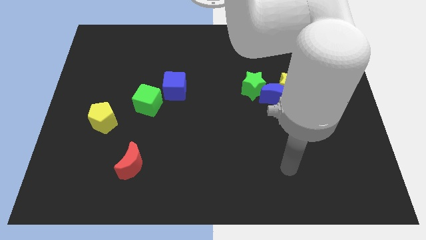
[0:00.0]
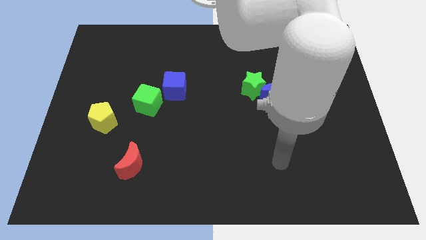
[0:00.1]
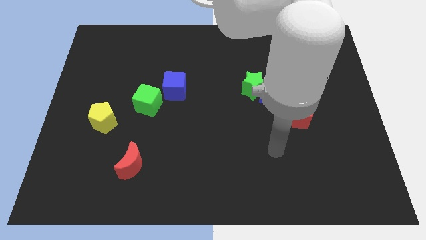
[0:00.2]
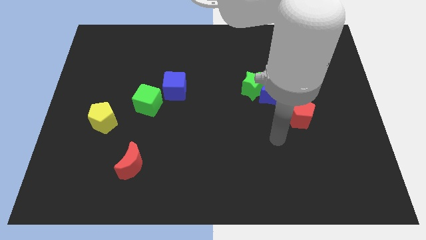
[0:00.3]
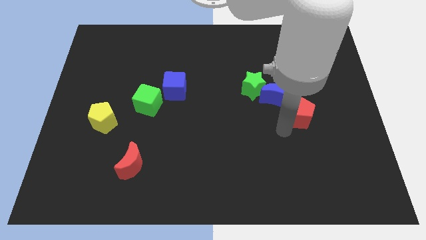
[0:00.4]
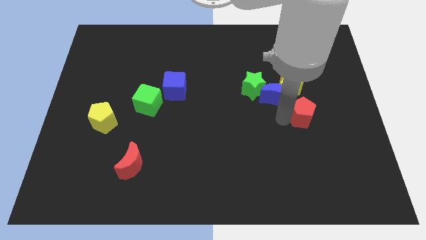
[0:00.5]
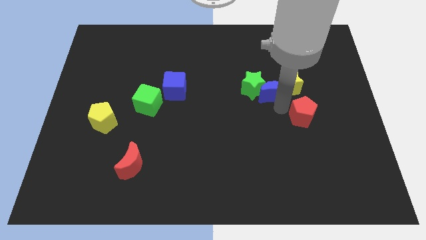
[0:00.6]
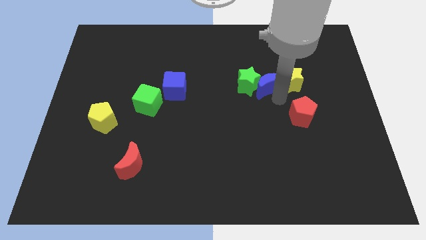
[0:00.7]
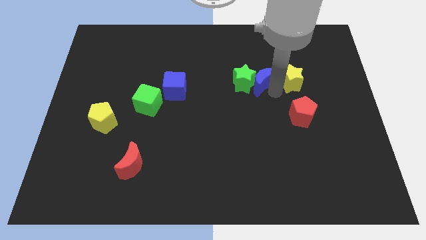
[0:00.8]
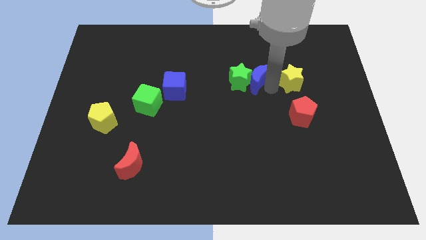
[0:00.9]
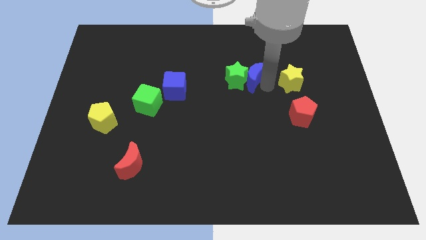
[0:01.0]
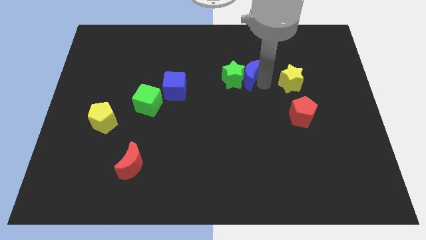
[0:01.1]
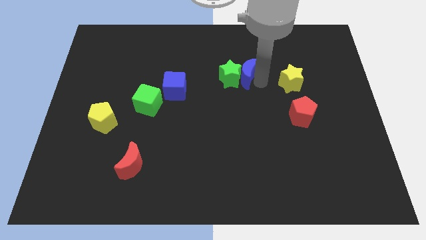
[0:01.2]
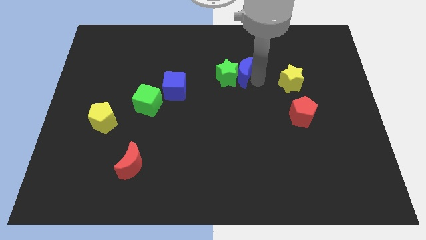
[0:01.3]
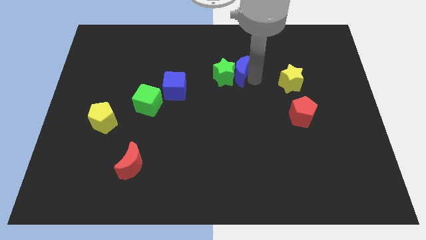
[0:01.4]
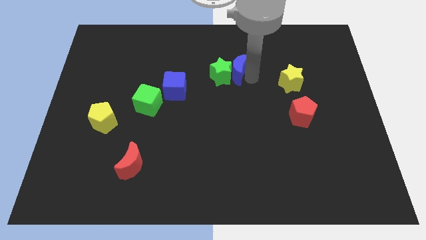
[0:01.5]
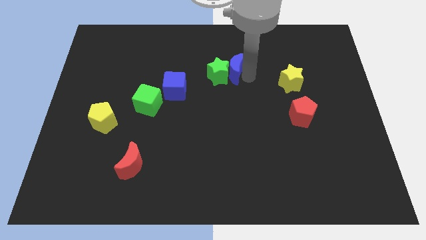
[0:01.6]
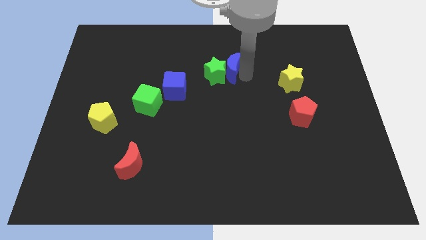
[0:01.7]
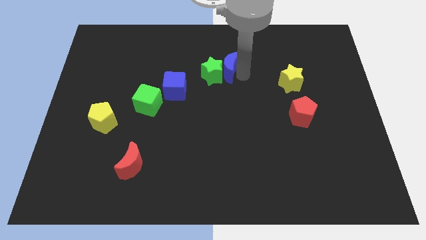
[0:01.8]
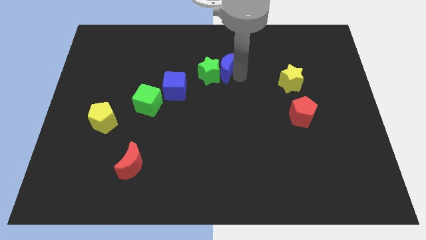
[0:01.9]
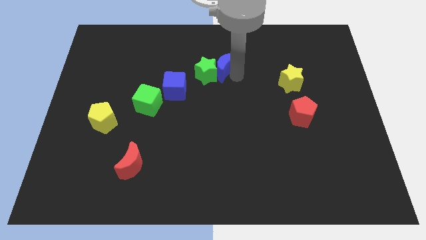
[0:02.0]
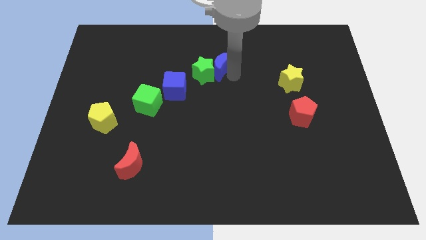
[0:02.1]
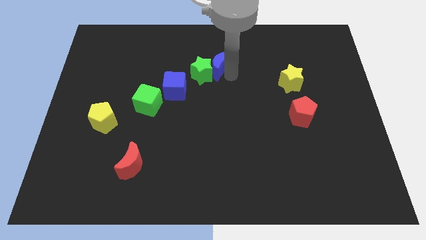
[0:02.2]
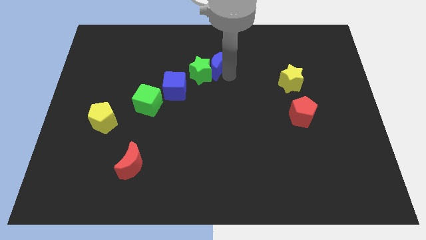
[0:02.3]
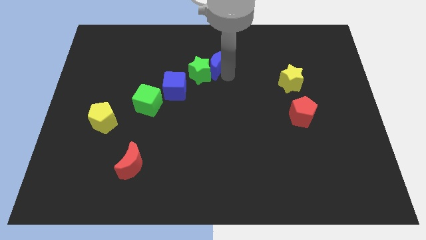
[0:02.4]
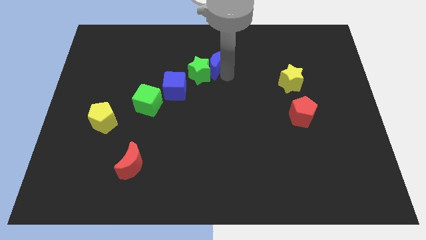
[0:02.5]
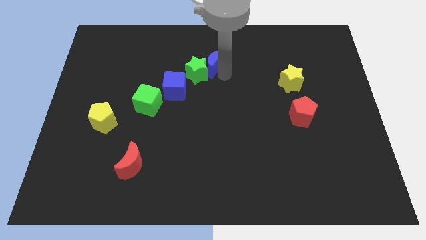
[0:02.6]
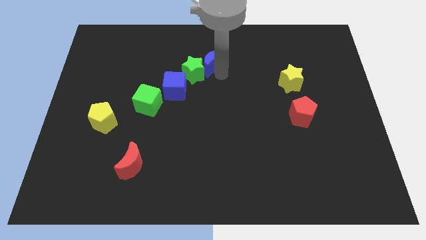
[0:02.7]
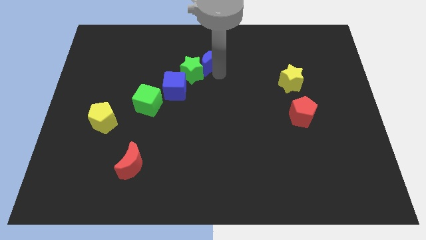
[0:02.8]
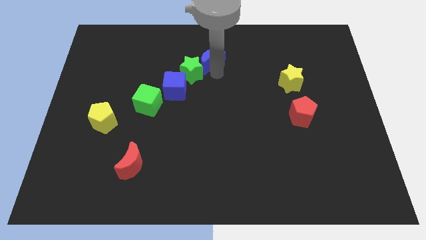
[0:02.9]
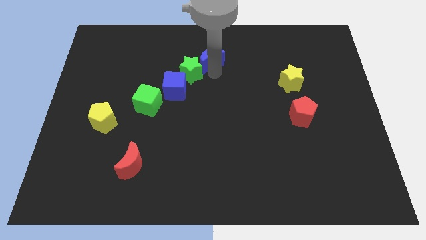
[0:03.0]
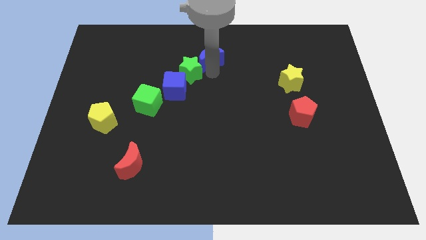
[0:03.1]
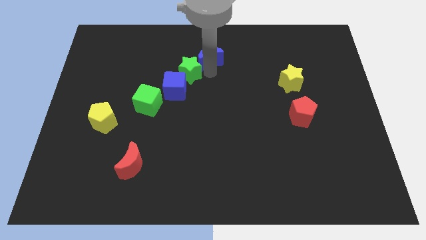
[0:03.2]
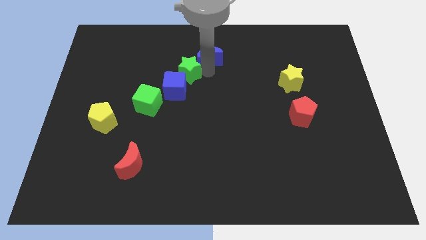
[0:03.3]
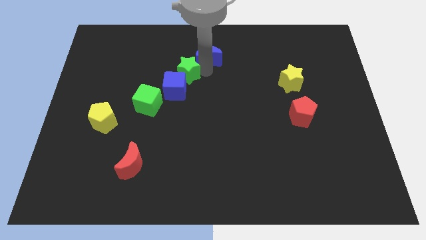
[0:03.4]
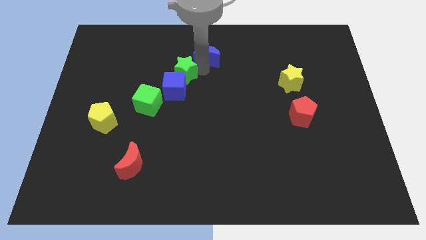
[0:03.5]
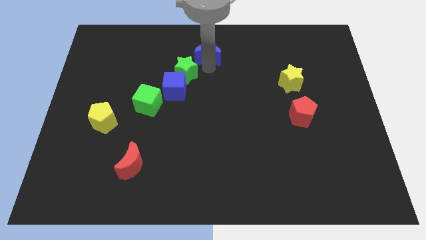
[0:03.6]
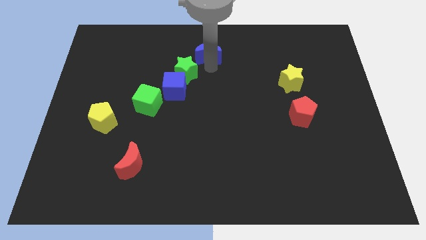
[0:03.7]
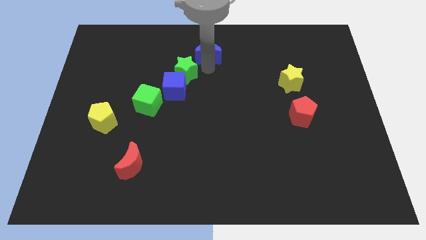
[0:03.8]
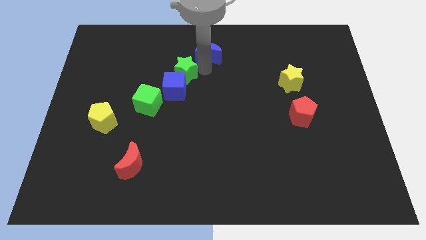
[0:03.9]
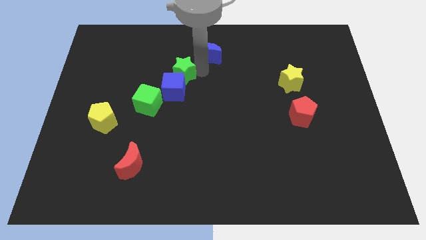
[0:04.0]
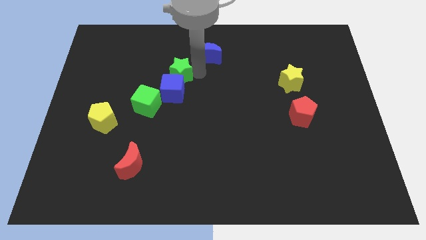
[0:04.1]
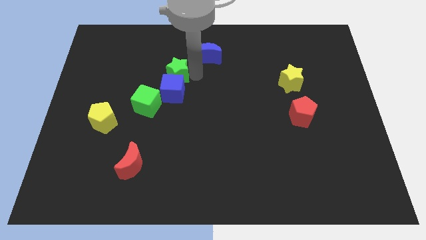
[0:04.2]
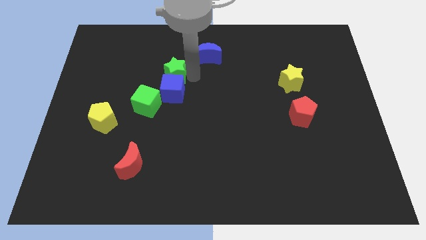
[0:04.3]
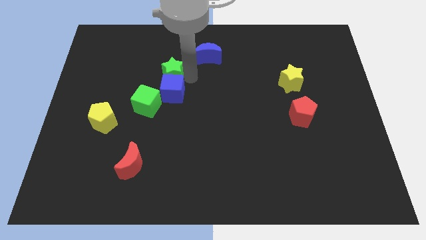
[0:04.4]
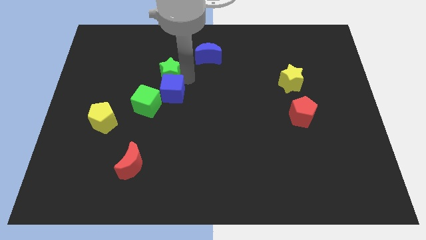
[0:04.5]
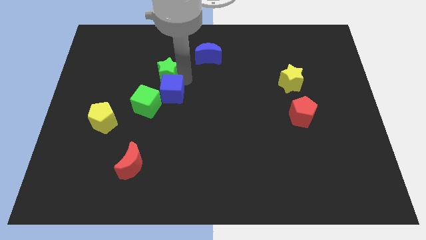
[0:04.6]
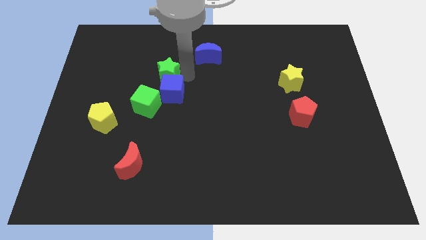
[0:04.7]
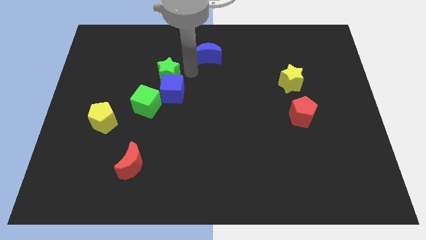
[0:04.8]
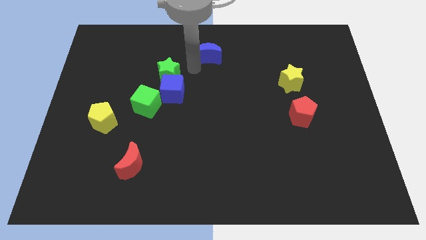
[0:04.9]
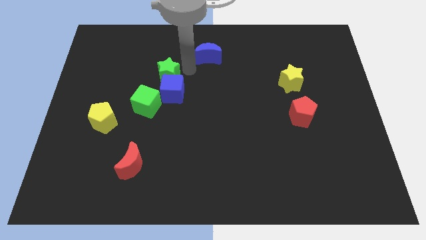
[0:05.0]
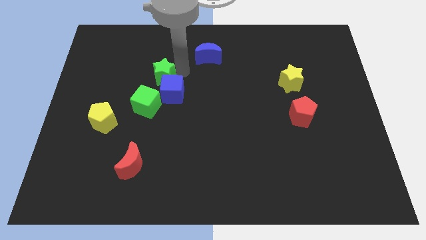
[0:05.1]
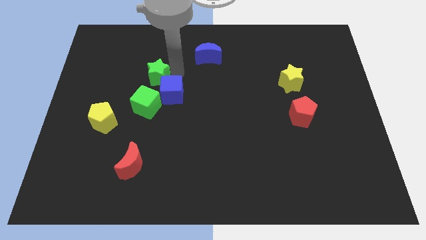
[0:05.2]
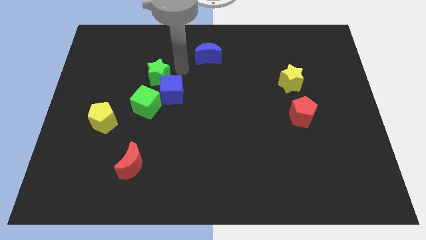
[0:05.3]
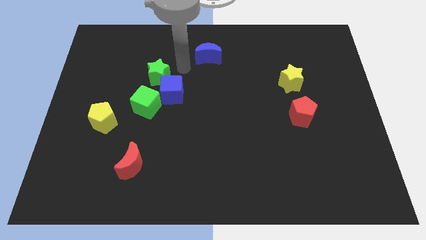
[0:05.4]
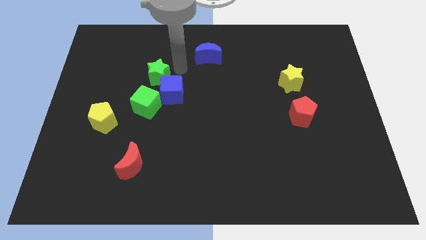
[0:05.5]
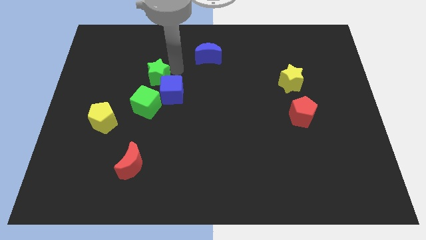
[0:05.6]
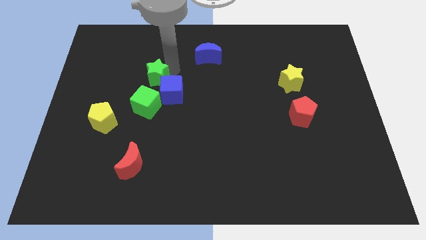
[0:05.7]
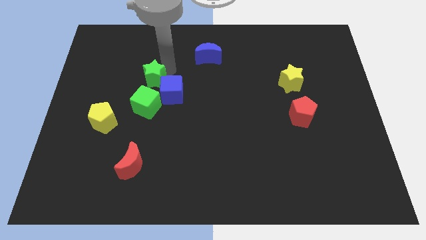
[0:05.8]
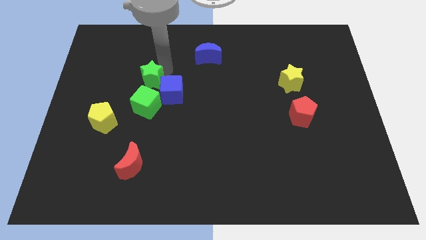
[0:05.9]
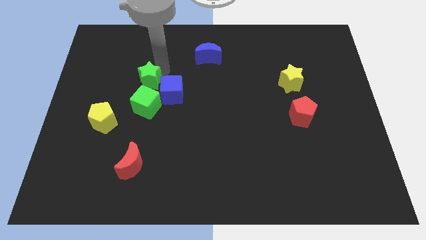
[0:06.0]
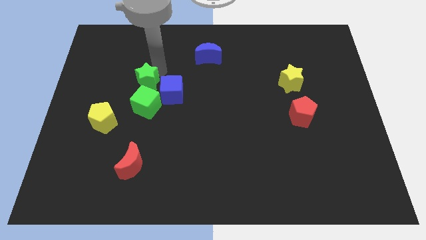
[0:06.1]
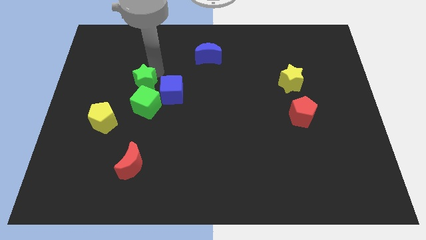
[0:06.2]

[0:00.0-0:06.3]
put the green star to the top left of the green cube

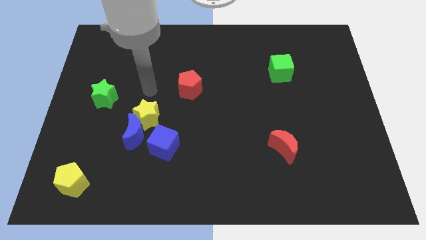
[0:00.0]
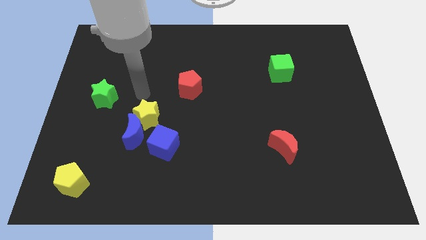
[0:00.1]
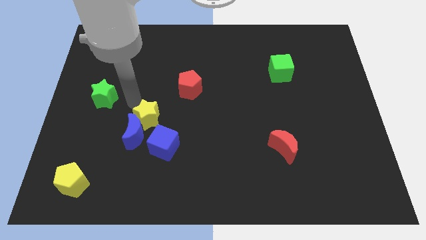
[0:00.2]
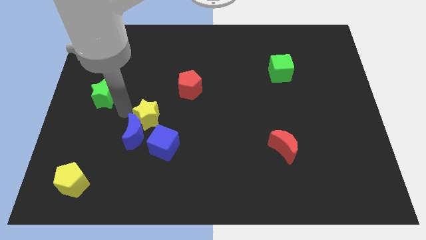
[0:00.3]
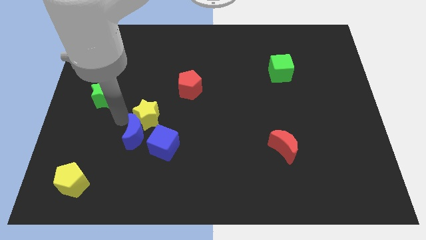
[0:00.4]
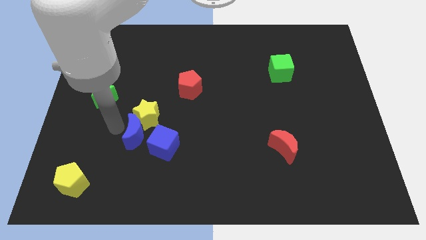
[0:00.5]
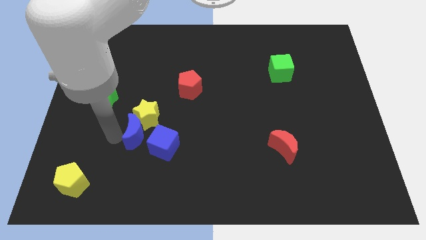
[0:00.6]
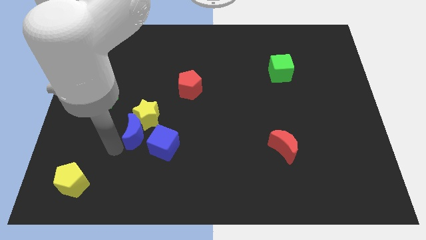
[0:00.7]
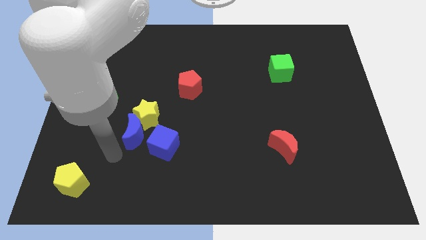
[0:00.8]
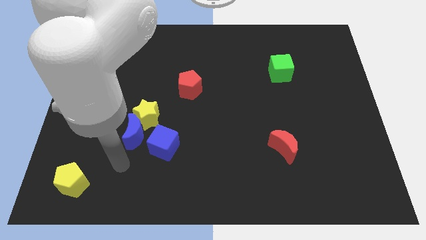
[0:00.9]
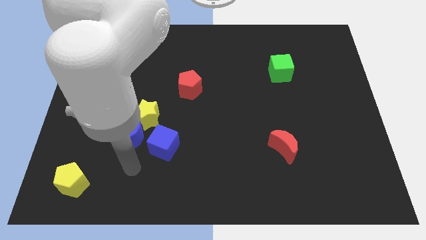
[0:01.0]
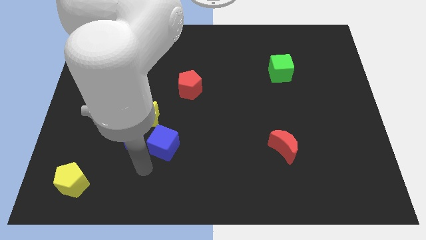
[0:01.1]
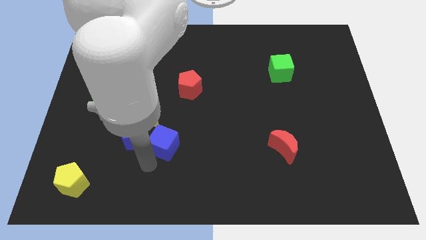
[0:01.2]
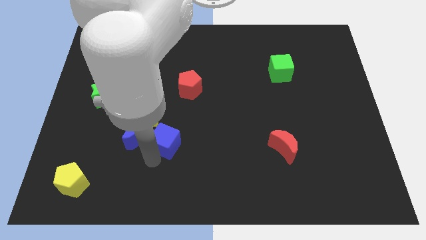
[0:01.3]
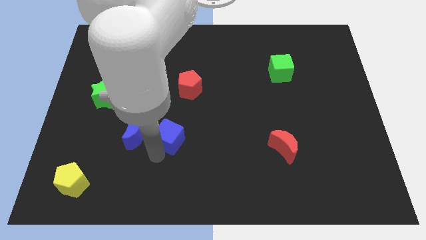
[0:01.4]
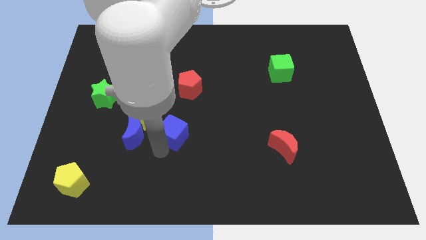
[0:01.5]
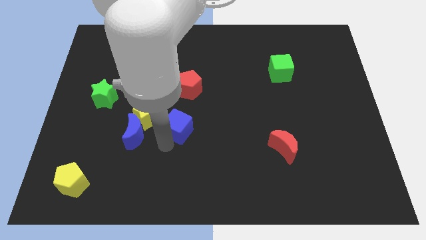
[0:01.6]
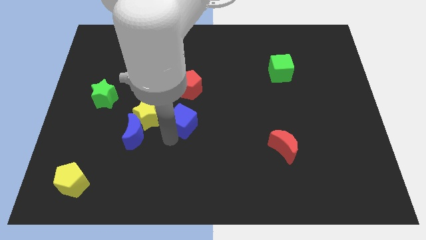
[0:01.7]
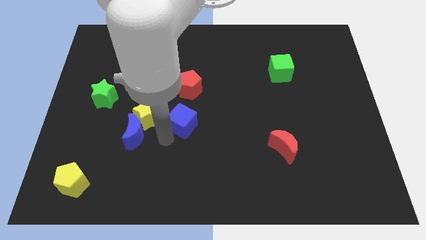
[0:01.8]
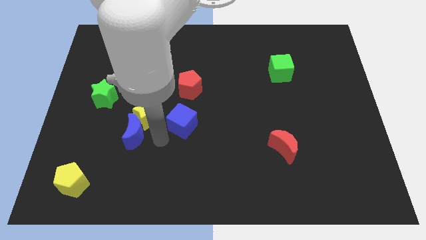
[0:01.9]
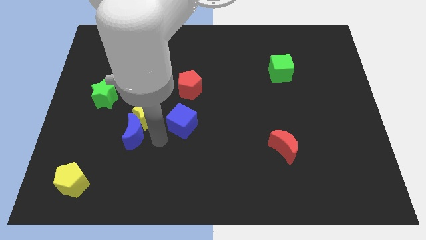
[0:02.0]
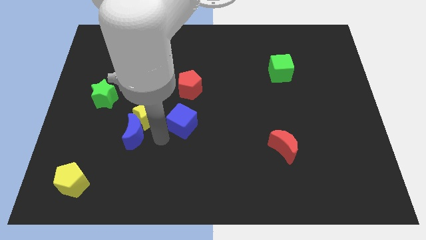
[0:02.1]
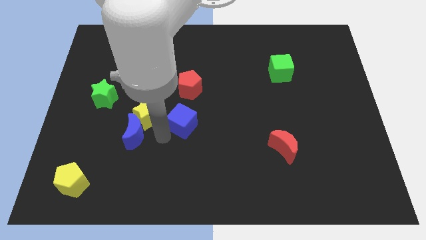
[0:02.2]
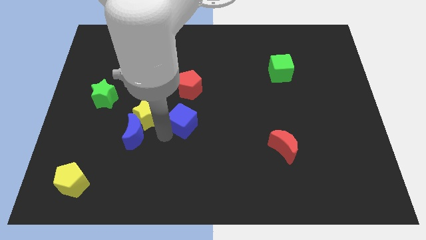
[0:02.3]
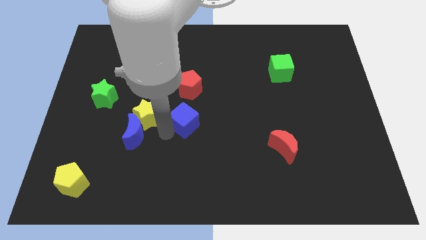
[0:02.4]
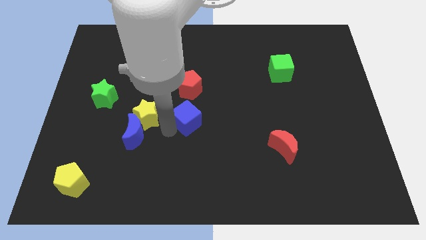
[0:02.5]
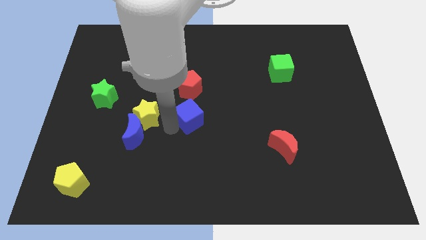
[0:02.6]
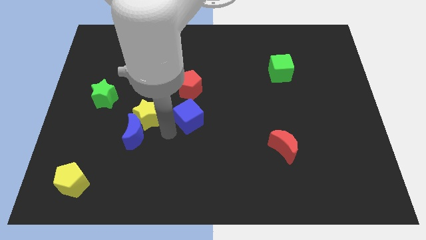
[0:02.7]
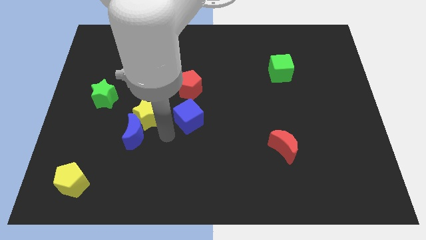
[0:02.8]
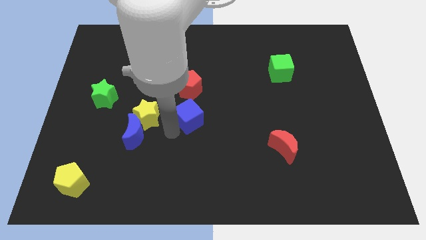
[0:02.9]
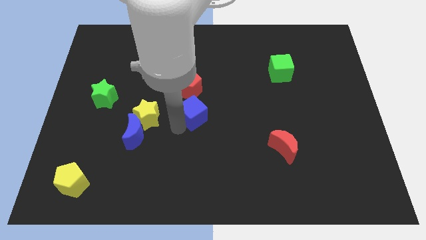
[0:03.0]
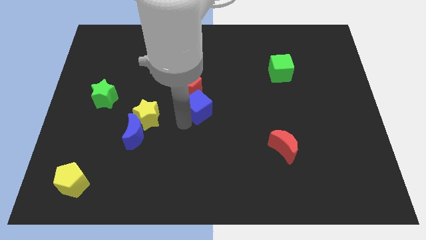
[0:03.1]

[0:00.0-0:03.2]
move the blue cube to the bottom right side of the red pentagon
